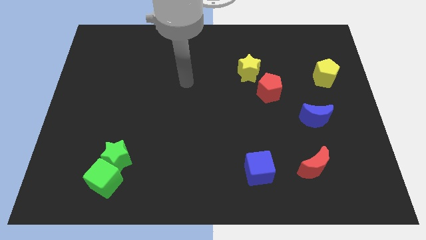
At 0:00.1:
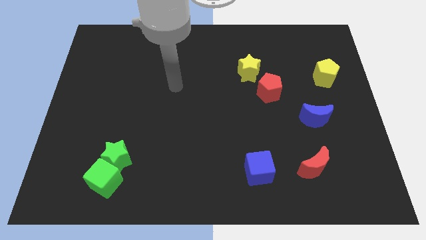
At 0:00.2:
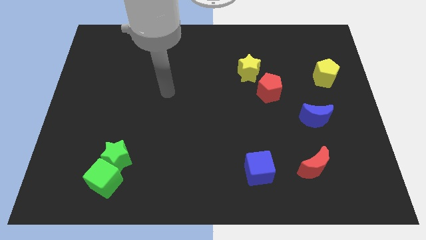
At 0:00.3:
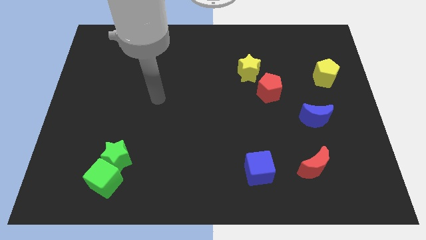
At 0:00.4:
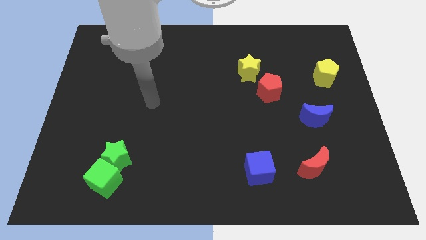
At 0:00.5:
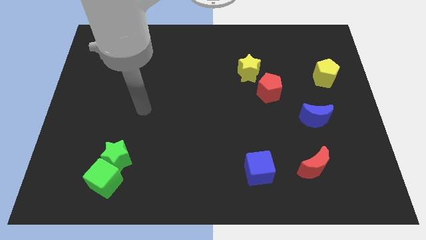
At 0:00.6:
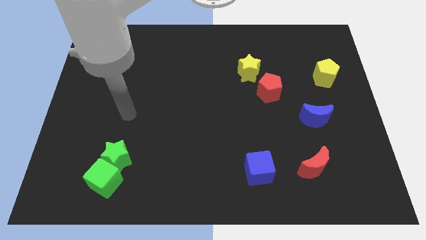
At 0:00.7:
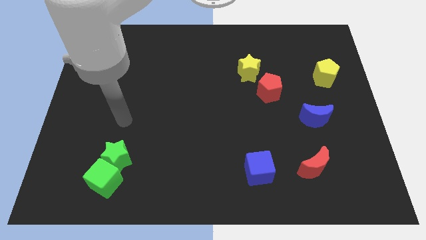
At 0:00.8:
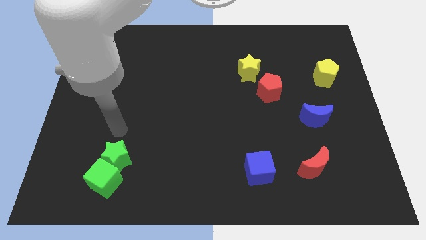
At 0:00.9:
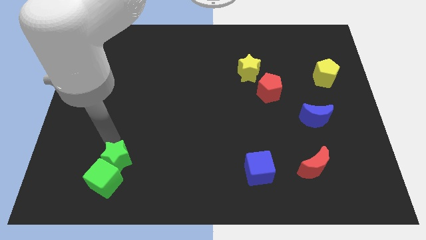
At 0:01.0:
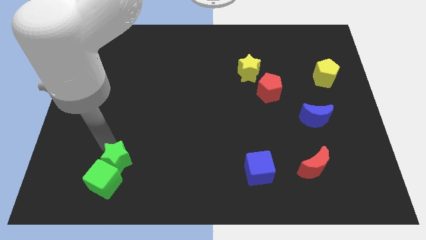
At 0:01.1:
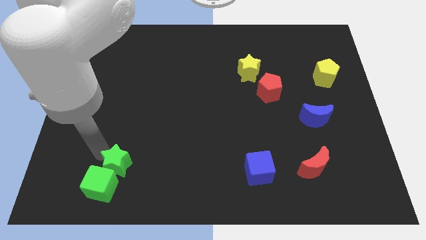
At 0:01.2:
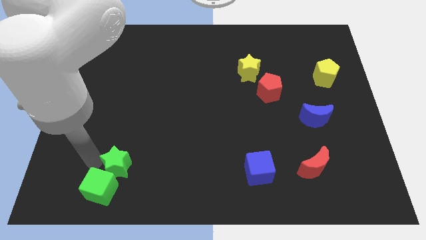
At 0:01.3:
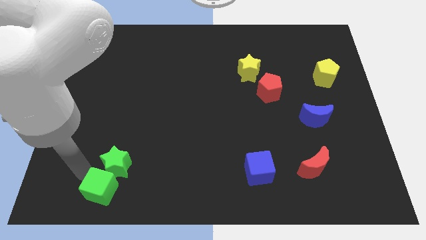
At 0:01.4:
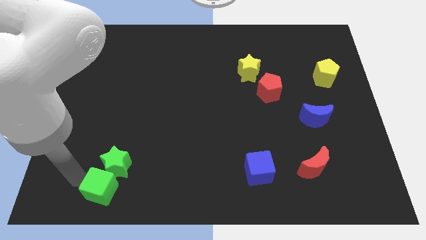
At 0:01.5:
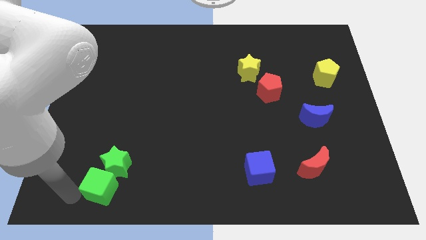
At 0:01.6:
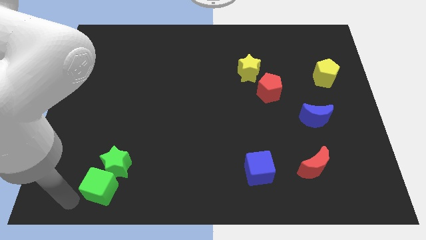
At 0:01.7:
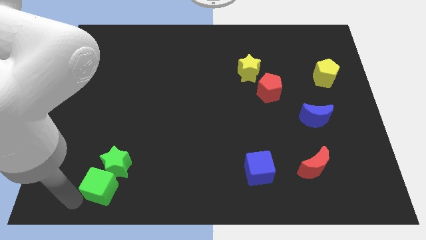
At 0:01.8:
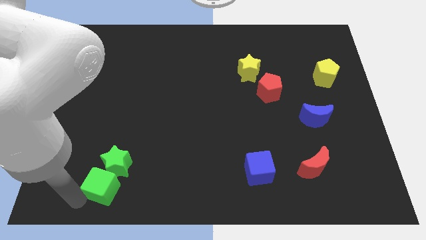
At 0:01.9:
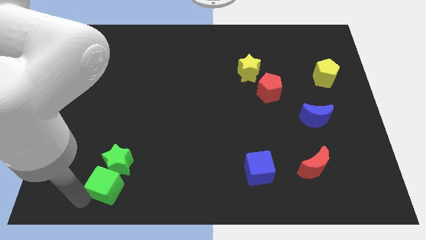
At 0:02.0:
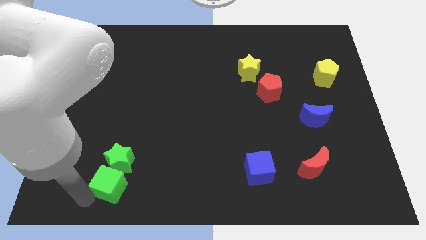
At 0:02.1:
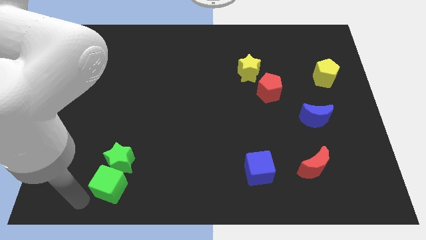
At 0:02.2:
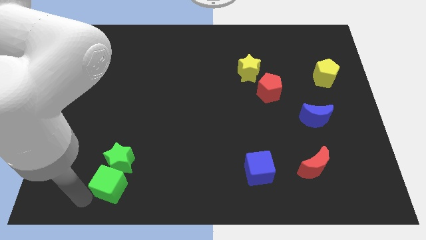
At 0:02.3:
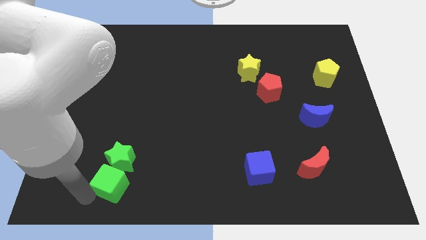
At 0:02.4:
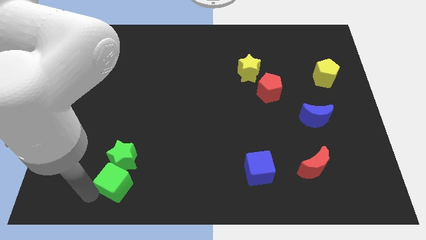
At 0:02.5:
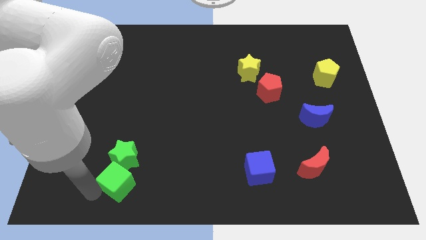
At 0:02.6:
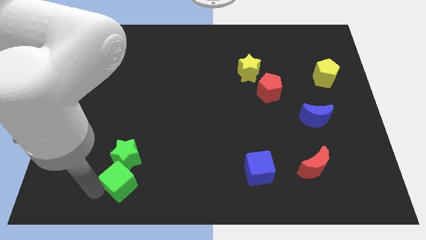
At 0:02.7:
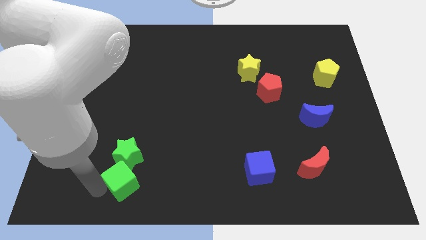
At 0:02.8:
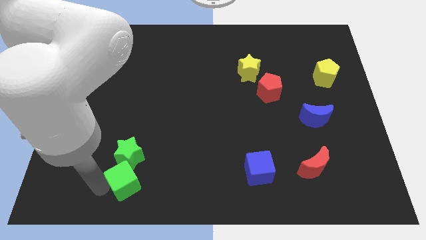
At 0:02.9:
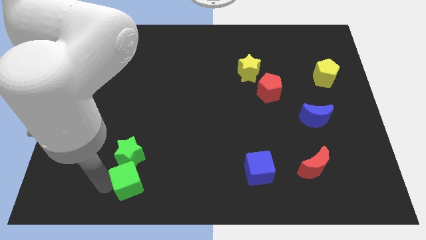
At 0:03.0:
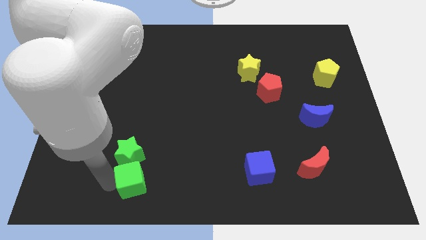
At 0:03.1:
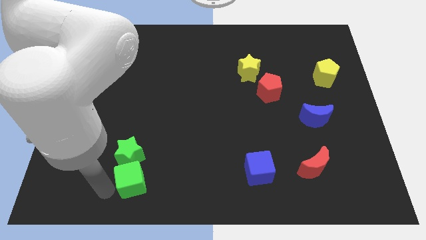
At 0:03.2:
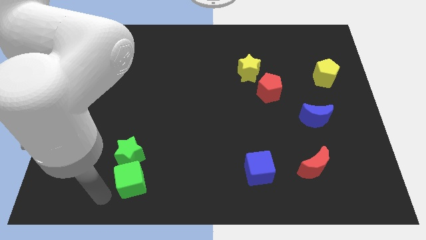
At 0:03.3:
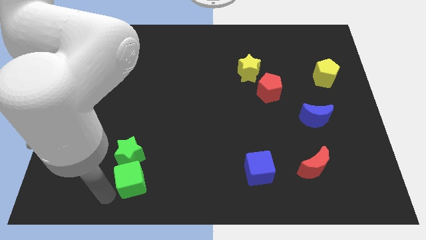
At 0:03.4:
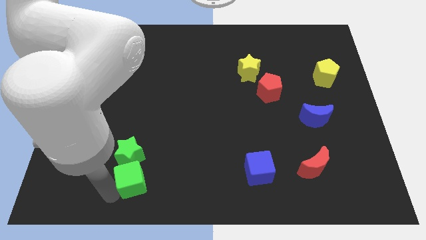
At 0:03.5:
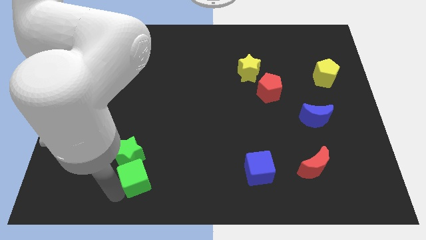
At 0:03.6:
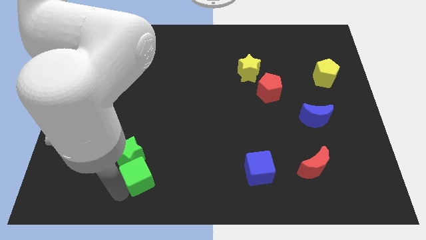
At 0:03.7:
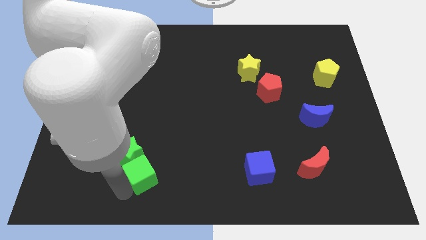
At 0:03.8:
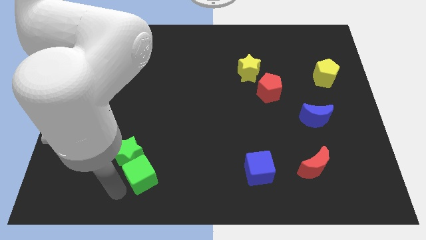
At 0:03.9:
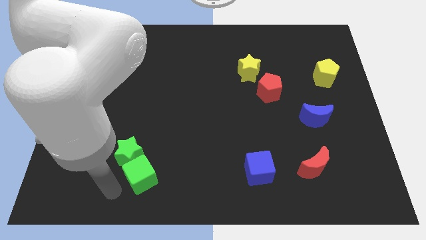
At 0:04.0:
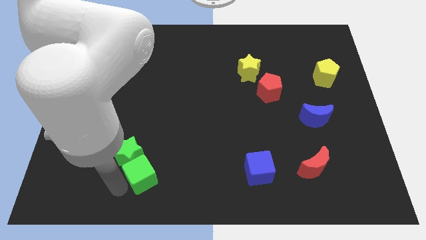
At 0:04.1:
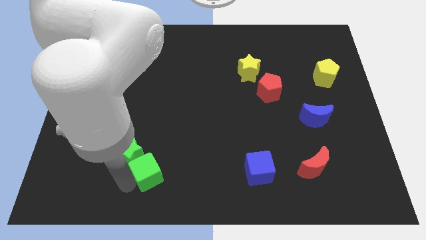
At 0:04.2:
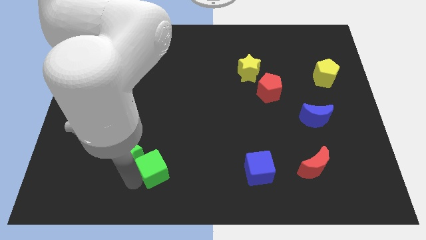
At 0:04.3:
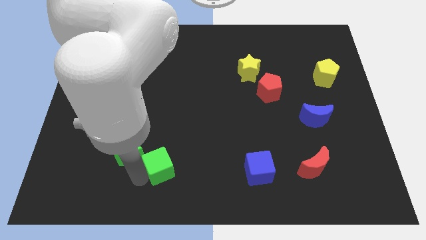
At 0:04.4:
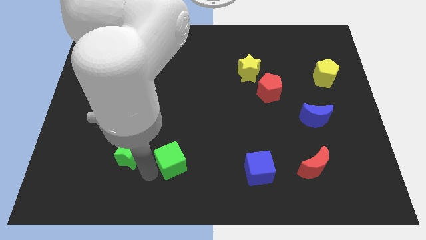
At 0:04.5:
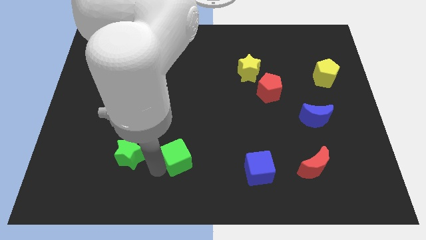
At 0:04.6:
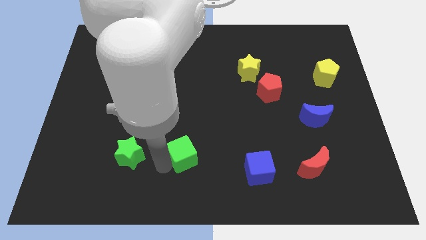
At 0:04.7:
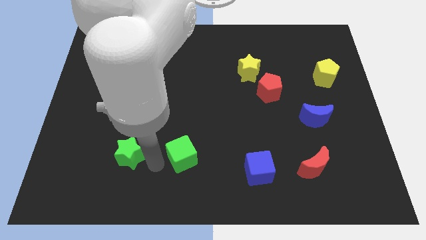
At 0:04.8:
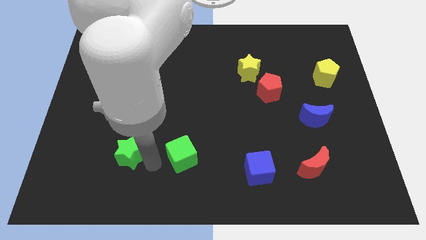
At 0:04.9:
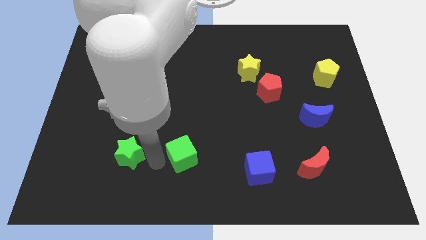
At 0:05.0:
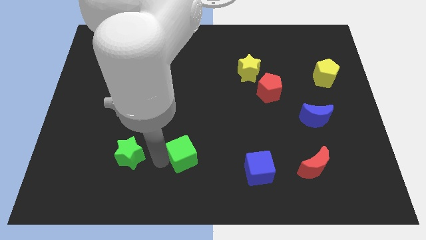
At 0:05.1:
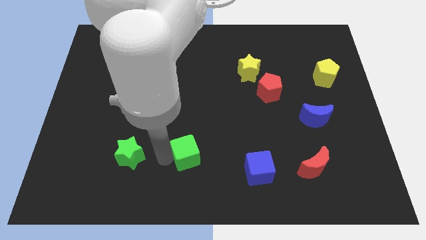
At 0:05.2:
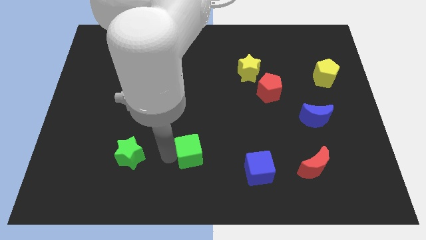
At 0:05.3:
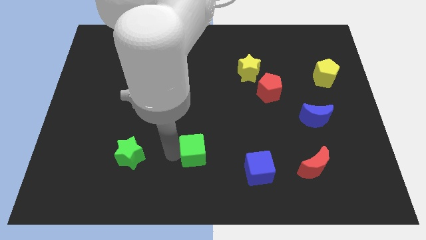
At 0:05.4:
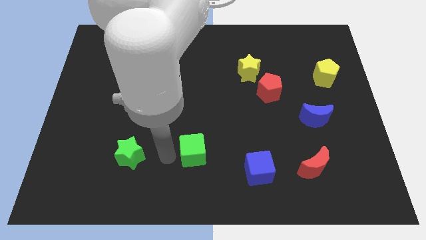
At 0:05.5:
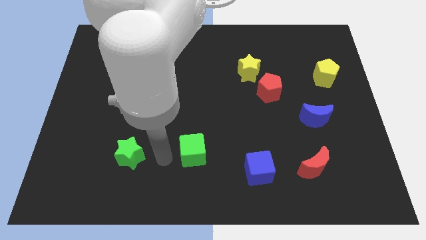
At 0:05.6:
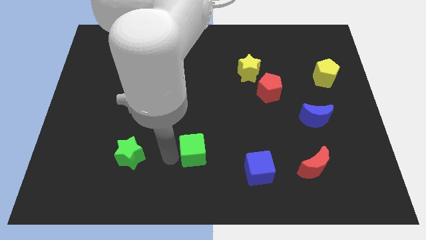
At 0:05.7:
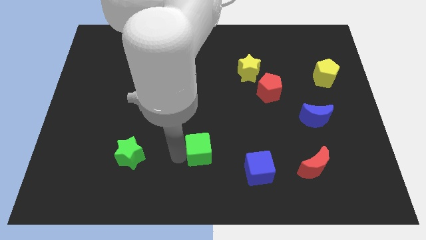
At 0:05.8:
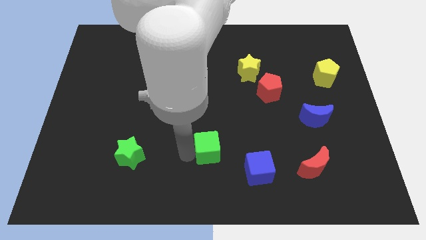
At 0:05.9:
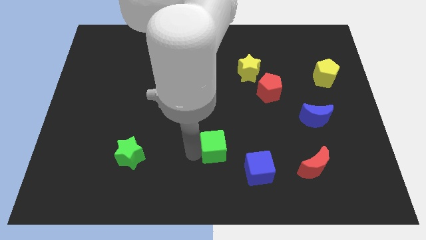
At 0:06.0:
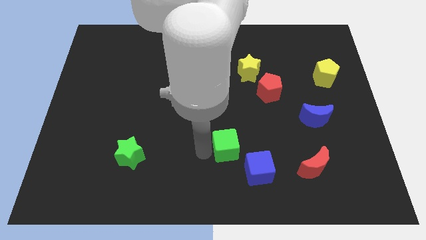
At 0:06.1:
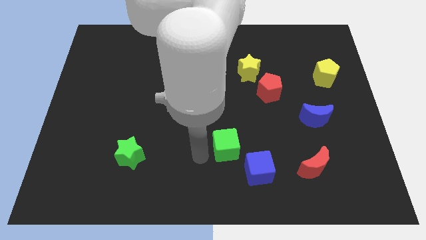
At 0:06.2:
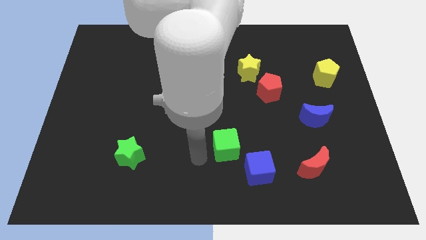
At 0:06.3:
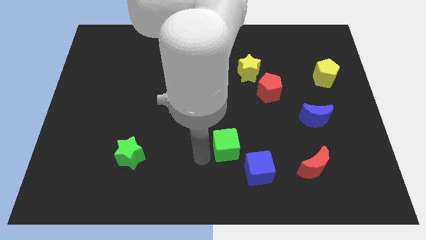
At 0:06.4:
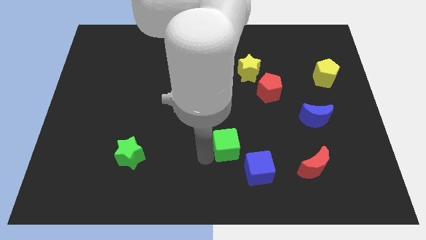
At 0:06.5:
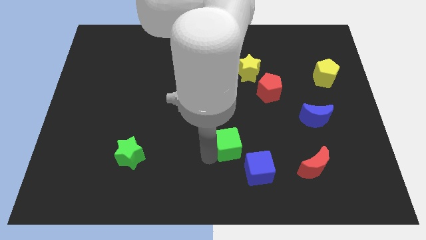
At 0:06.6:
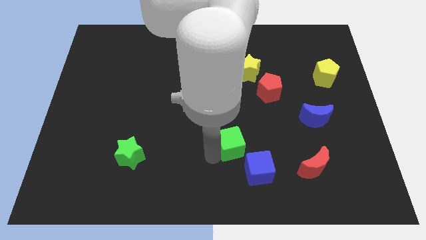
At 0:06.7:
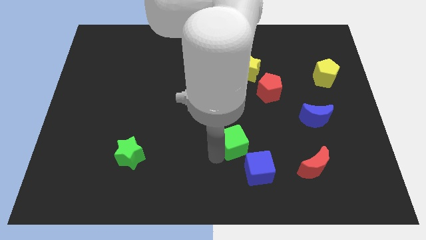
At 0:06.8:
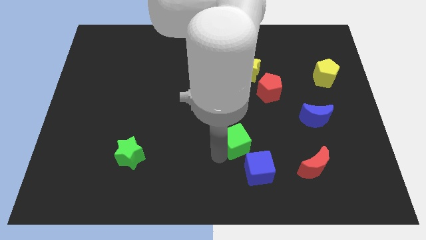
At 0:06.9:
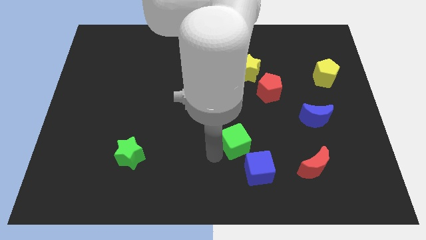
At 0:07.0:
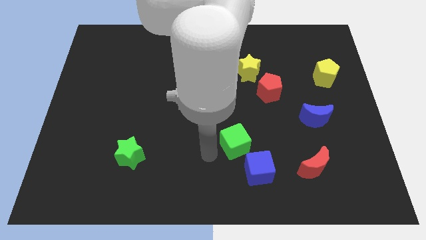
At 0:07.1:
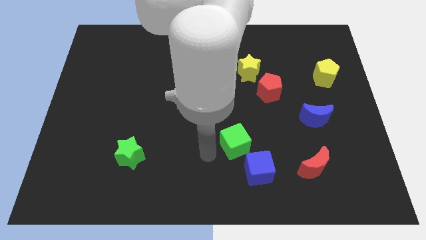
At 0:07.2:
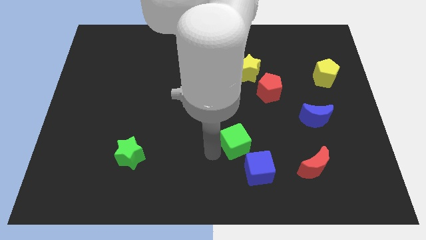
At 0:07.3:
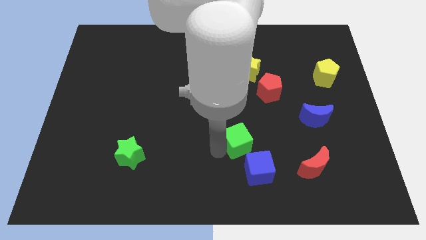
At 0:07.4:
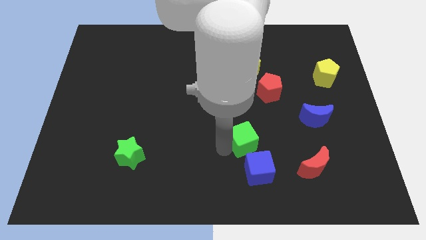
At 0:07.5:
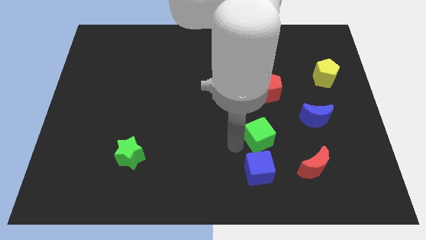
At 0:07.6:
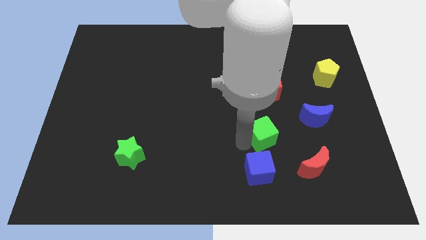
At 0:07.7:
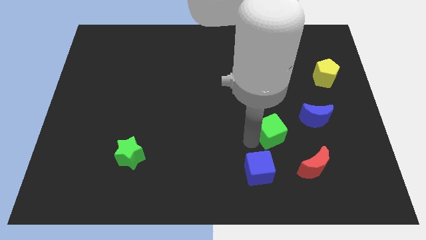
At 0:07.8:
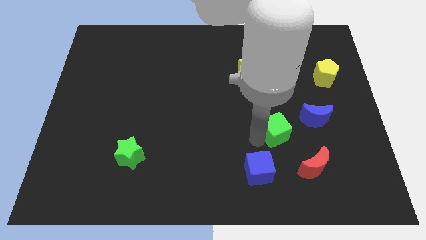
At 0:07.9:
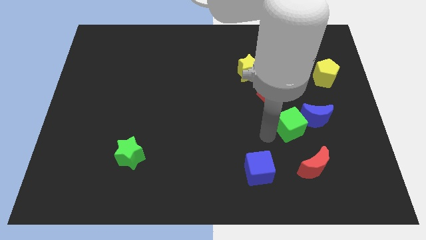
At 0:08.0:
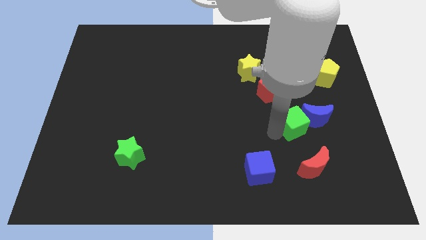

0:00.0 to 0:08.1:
push the green cube to the blue moon
